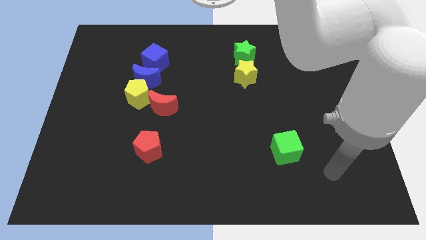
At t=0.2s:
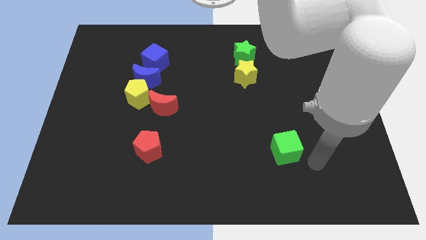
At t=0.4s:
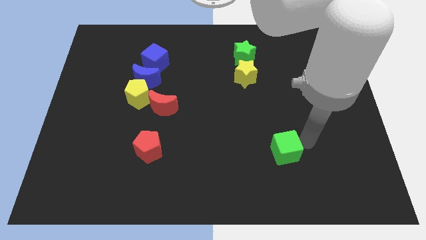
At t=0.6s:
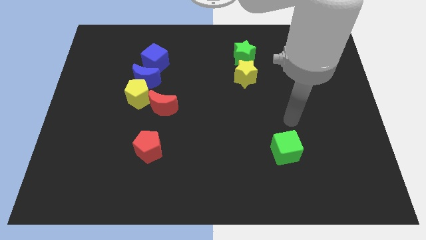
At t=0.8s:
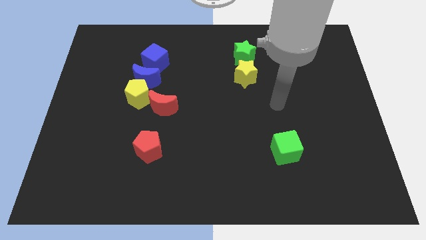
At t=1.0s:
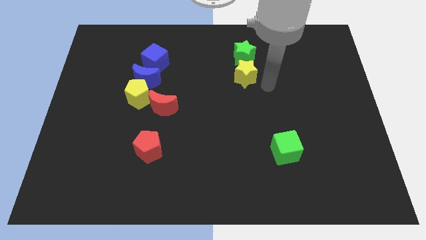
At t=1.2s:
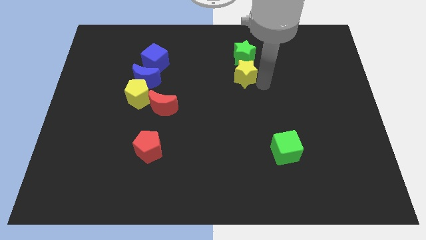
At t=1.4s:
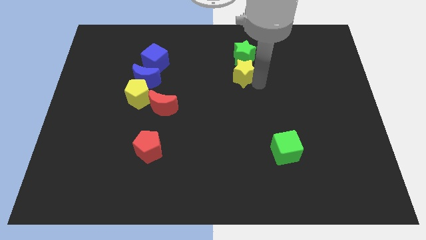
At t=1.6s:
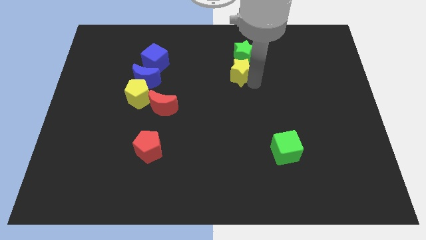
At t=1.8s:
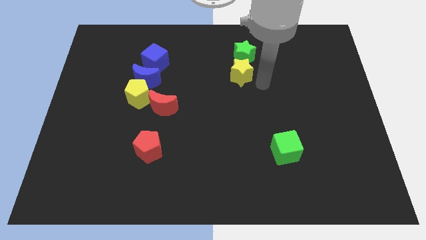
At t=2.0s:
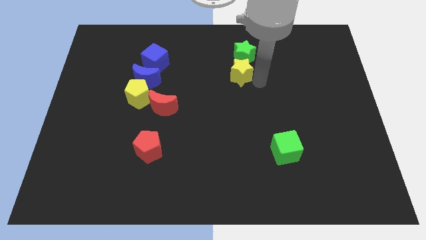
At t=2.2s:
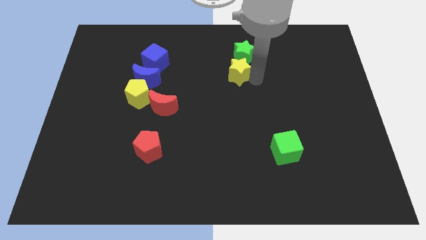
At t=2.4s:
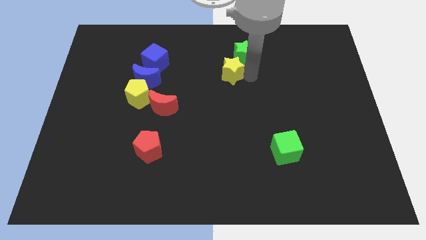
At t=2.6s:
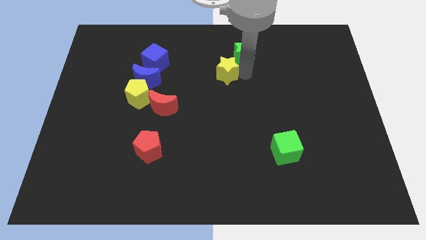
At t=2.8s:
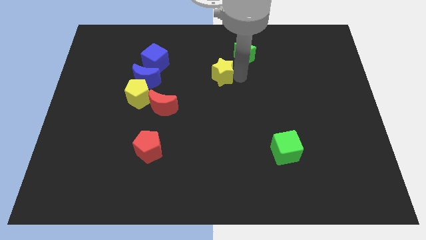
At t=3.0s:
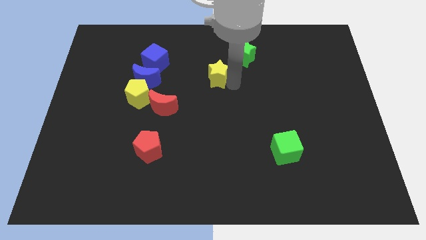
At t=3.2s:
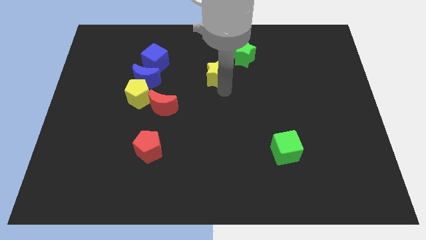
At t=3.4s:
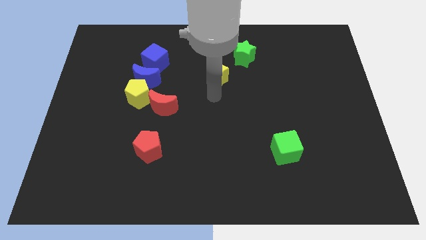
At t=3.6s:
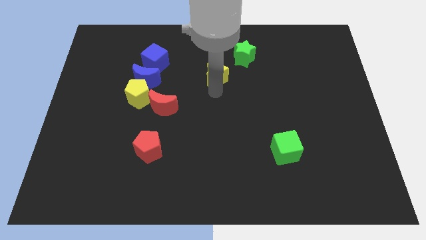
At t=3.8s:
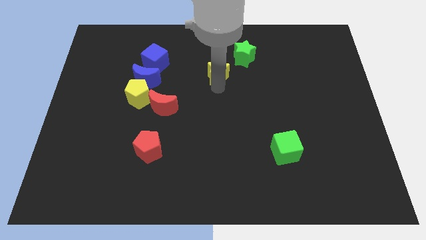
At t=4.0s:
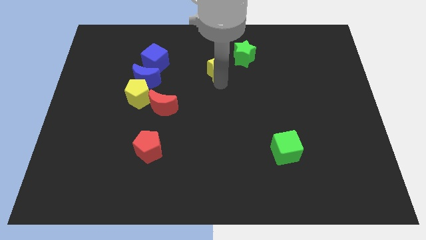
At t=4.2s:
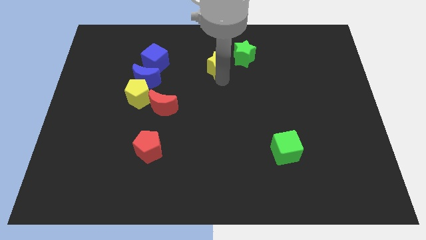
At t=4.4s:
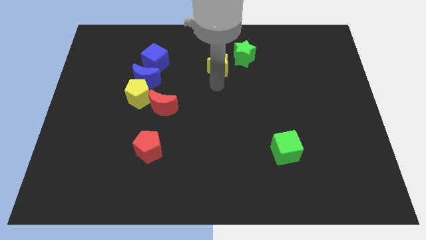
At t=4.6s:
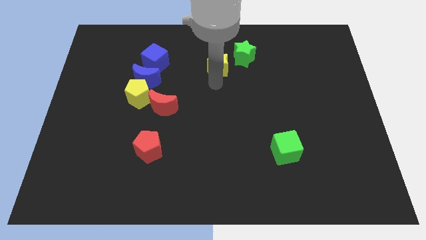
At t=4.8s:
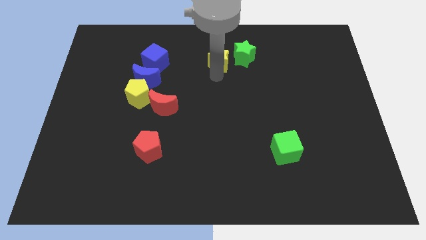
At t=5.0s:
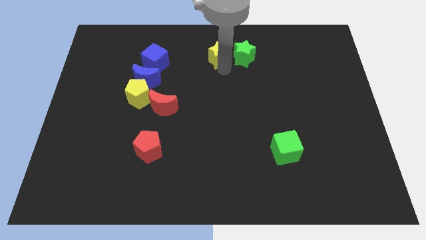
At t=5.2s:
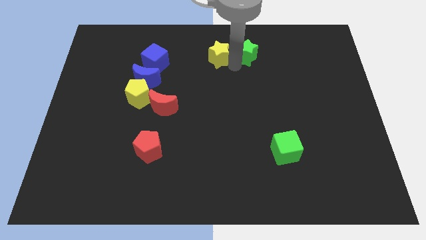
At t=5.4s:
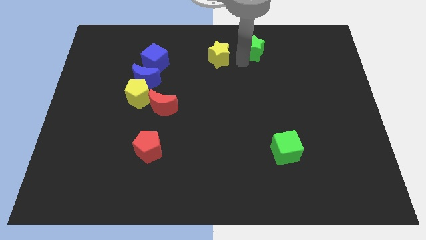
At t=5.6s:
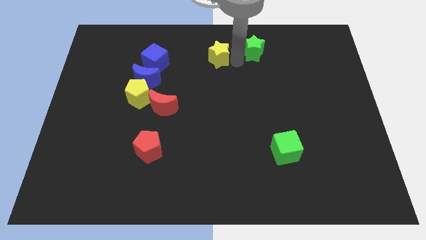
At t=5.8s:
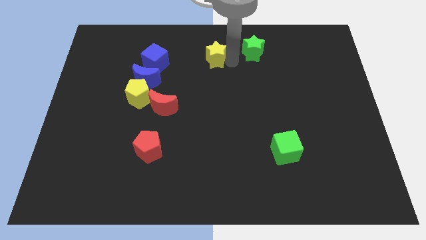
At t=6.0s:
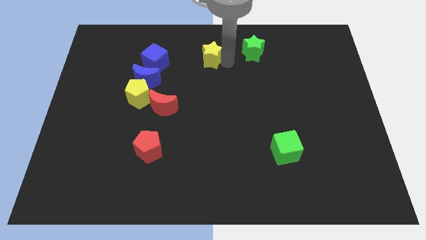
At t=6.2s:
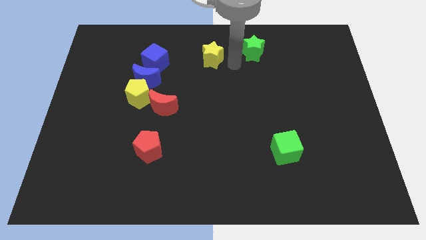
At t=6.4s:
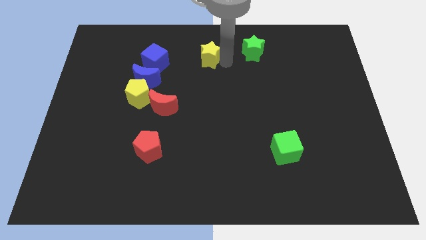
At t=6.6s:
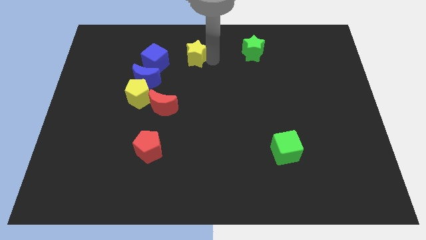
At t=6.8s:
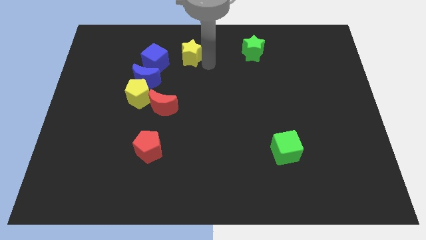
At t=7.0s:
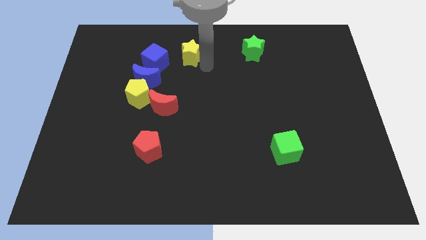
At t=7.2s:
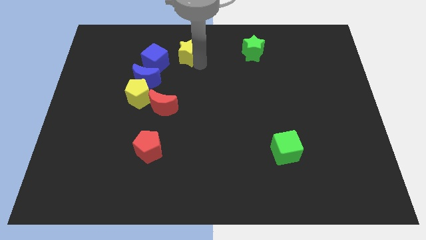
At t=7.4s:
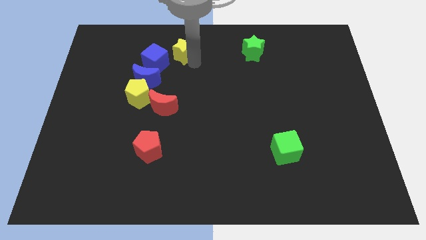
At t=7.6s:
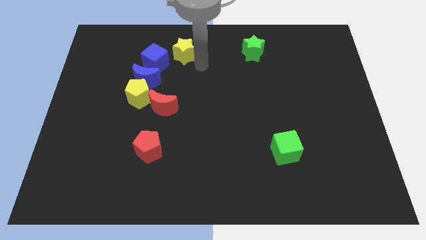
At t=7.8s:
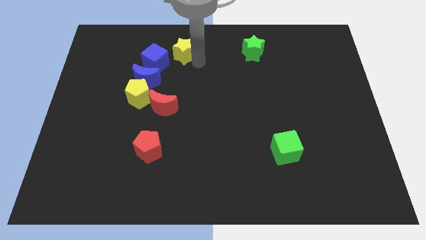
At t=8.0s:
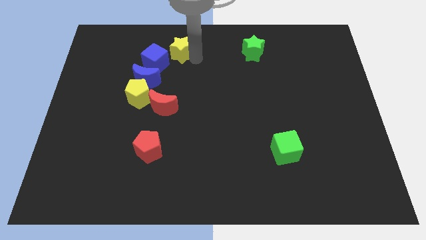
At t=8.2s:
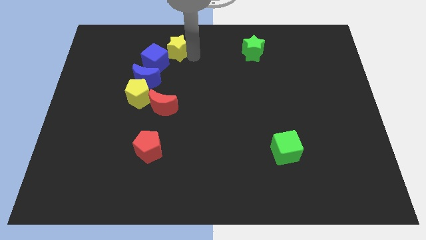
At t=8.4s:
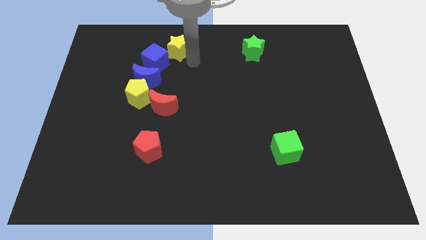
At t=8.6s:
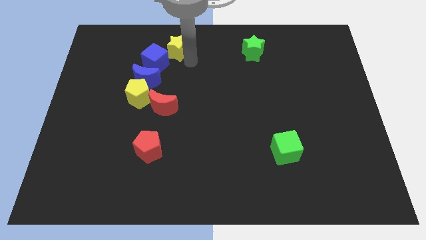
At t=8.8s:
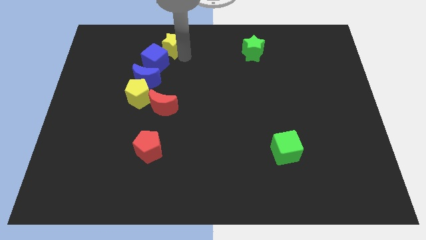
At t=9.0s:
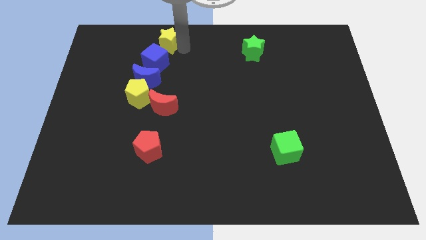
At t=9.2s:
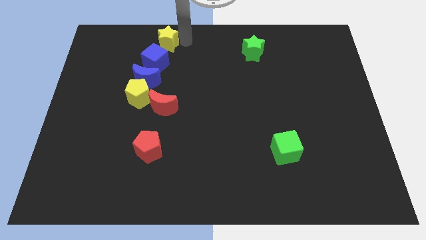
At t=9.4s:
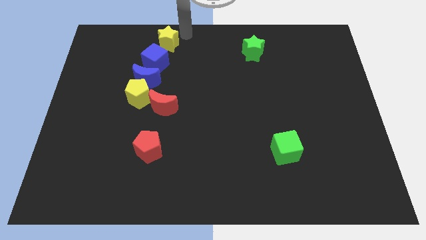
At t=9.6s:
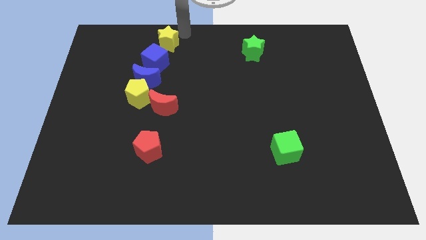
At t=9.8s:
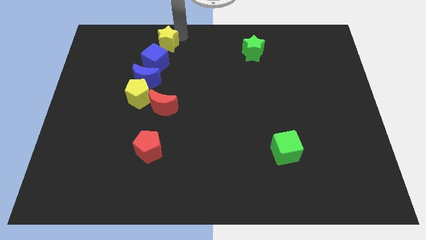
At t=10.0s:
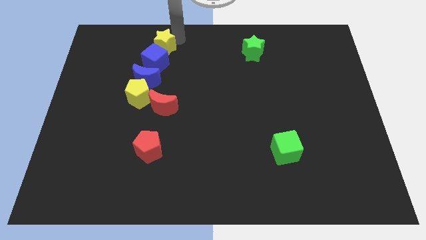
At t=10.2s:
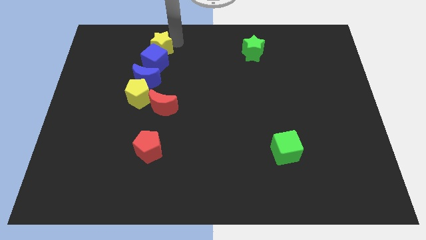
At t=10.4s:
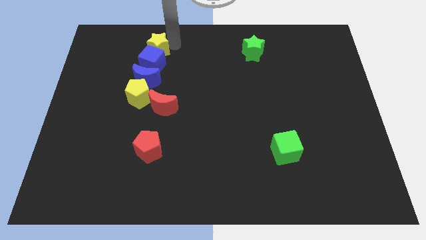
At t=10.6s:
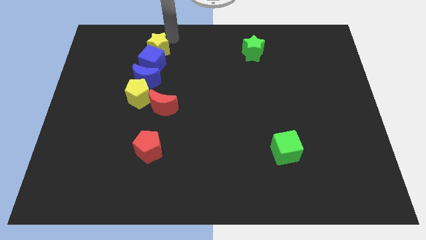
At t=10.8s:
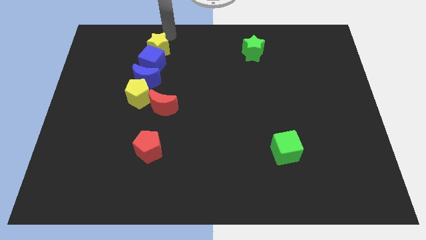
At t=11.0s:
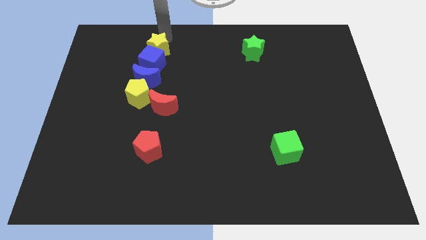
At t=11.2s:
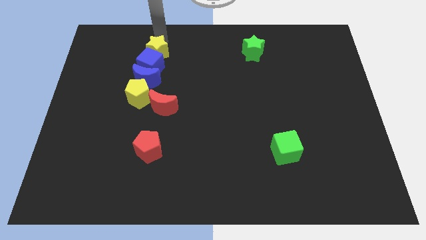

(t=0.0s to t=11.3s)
move the yellow star to the top of the yellow pentagon

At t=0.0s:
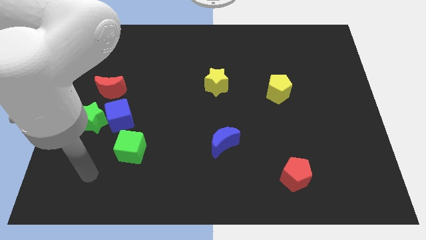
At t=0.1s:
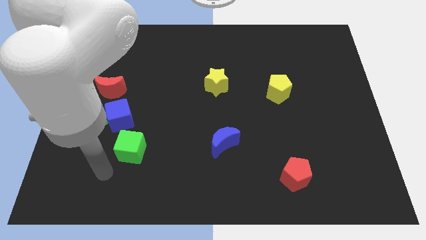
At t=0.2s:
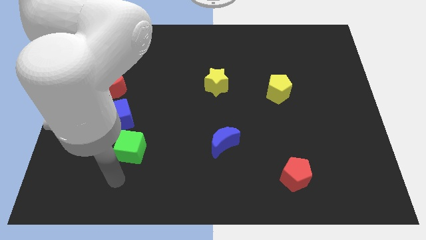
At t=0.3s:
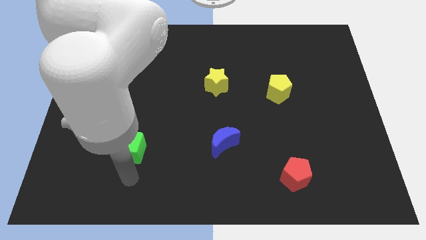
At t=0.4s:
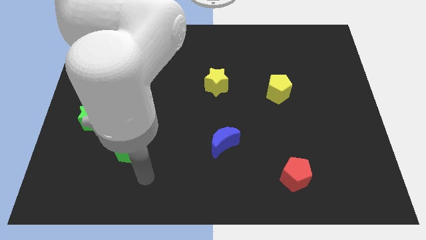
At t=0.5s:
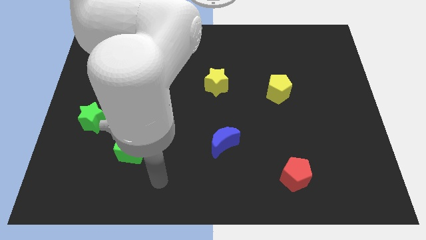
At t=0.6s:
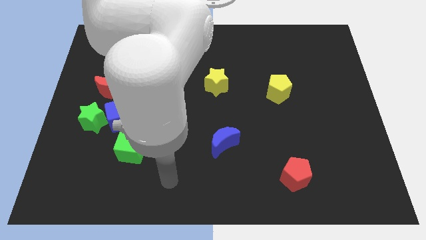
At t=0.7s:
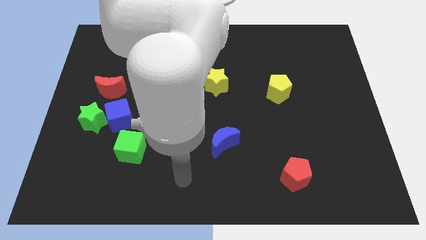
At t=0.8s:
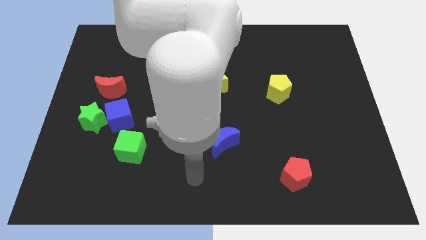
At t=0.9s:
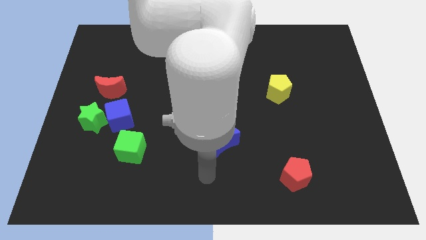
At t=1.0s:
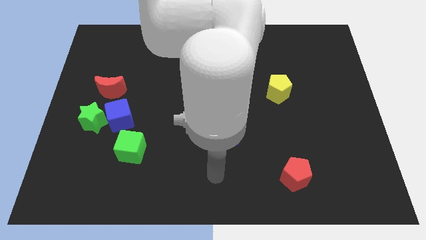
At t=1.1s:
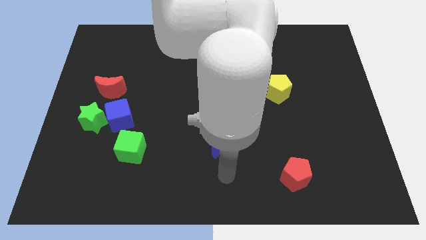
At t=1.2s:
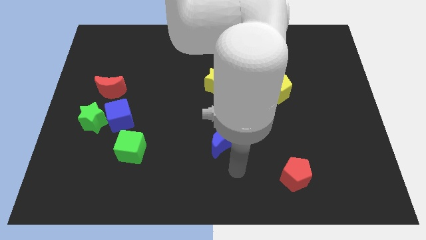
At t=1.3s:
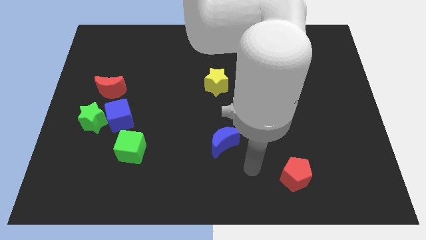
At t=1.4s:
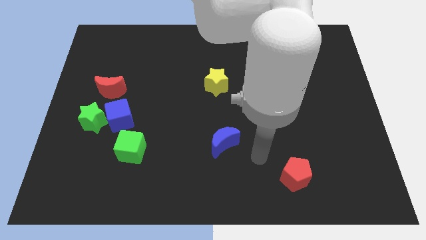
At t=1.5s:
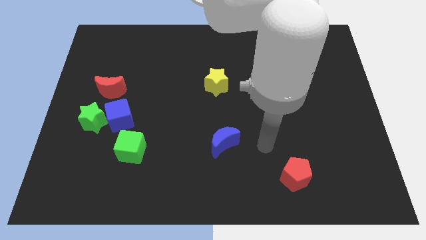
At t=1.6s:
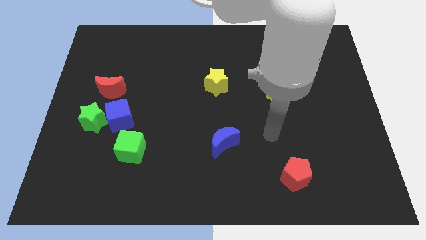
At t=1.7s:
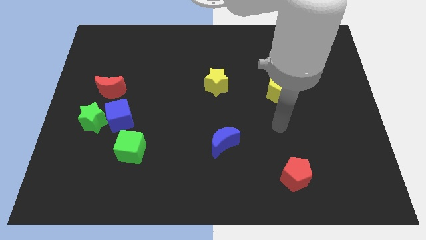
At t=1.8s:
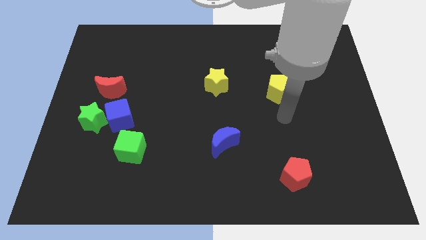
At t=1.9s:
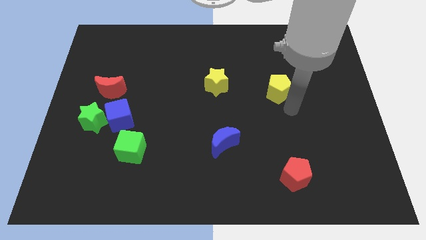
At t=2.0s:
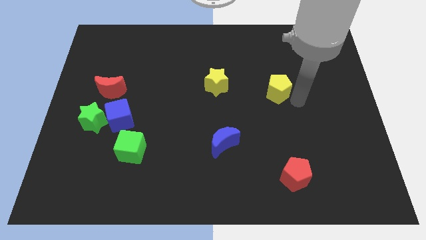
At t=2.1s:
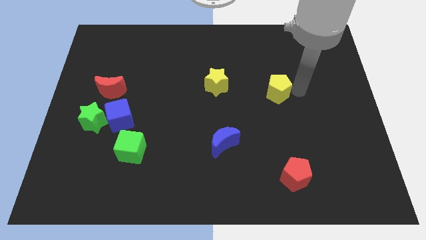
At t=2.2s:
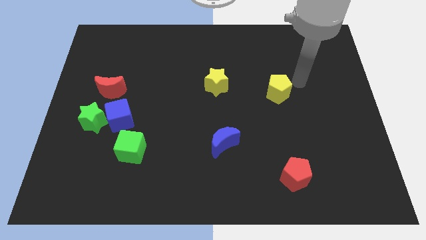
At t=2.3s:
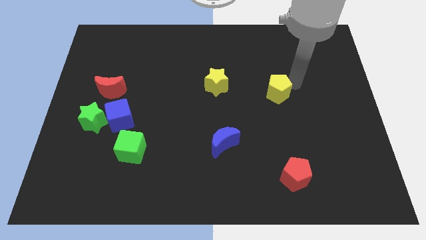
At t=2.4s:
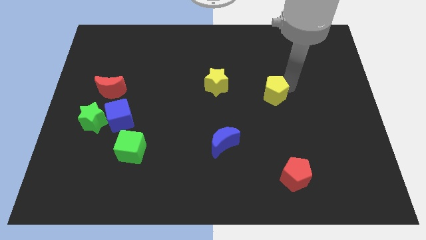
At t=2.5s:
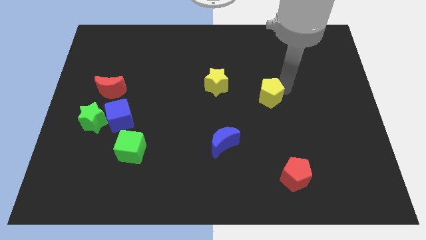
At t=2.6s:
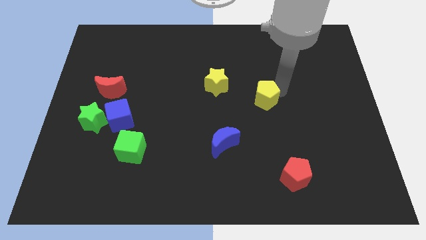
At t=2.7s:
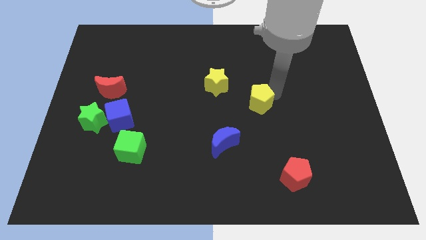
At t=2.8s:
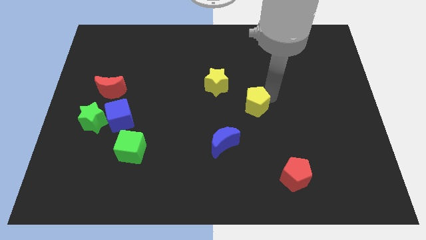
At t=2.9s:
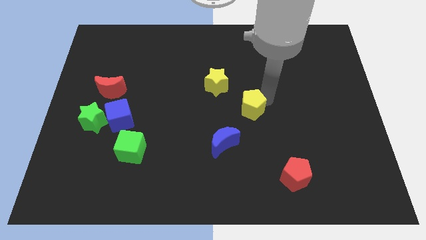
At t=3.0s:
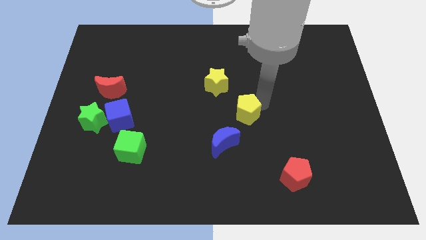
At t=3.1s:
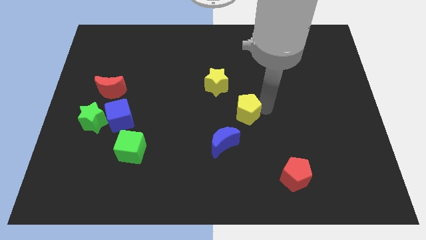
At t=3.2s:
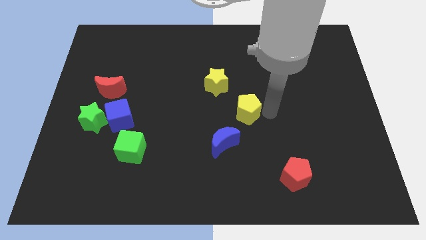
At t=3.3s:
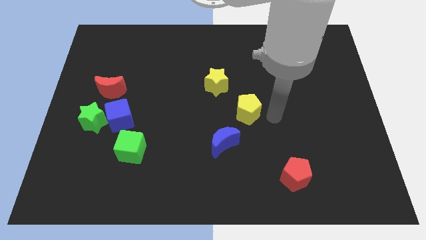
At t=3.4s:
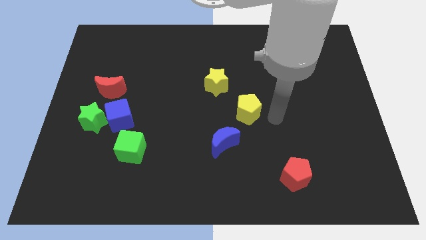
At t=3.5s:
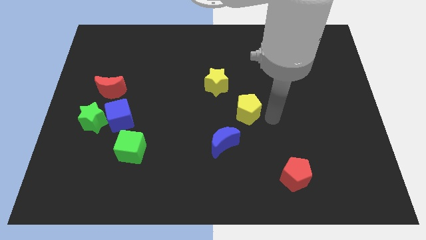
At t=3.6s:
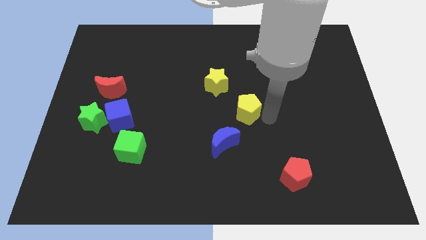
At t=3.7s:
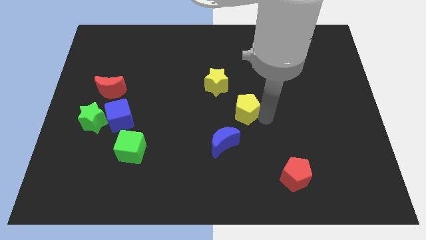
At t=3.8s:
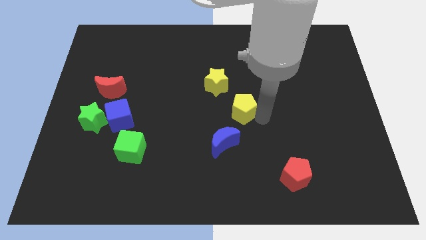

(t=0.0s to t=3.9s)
put the yellow pentagon above the blue moon
